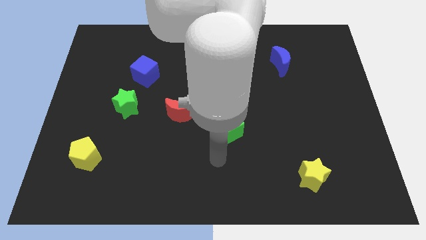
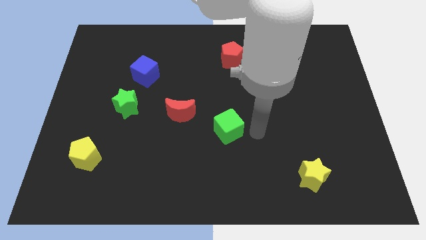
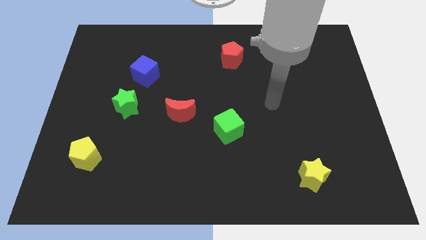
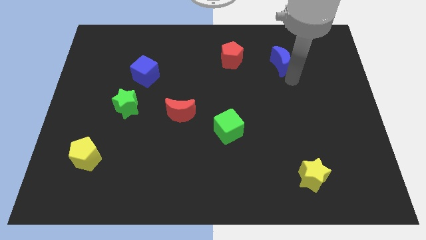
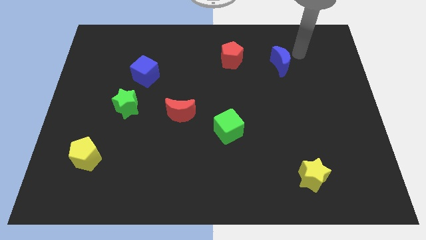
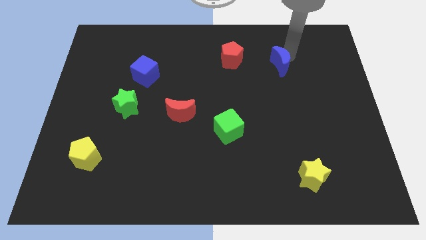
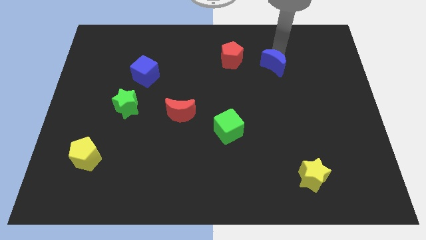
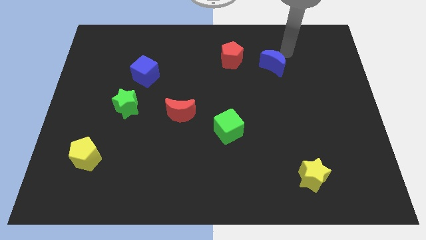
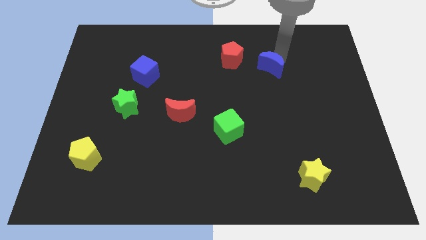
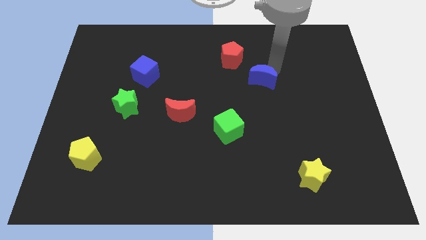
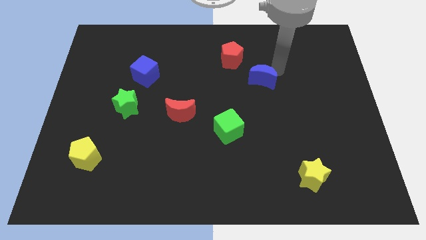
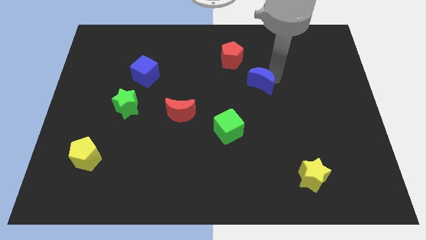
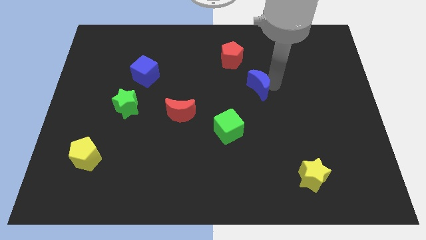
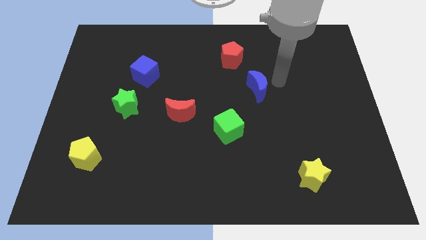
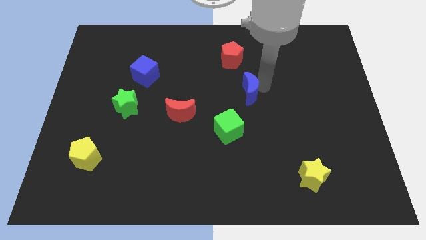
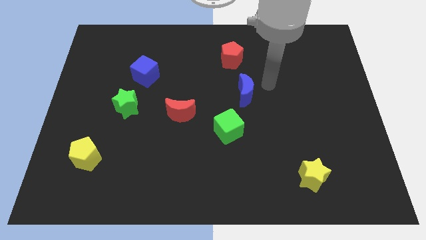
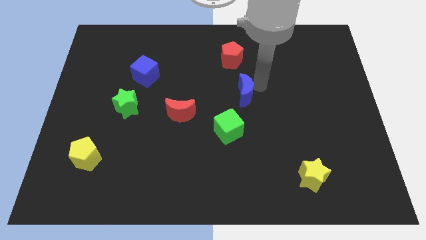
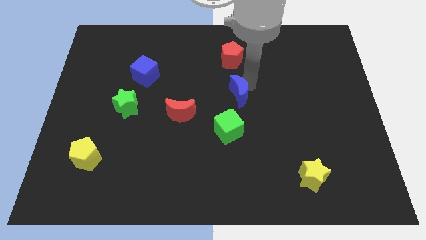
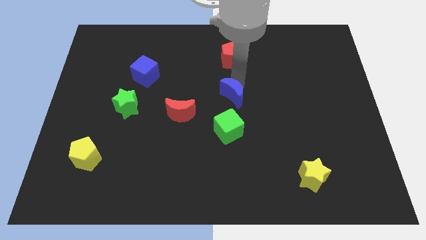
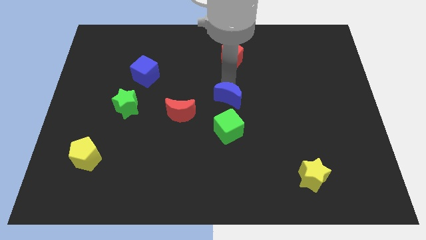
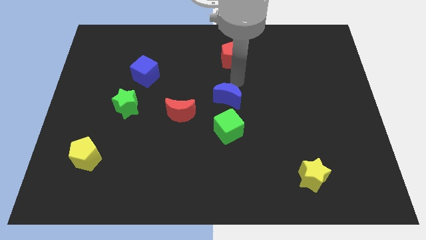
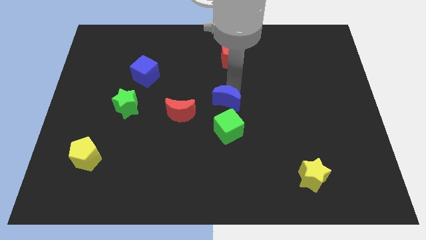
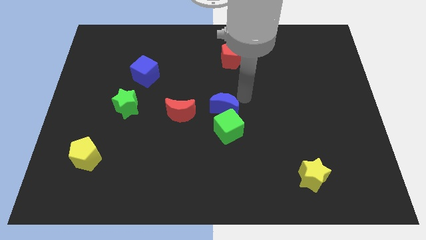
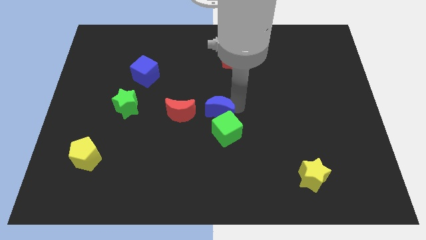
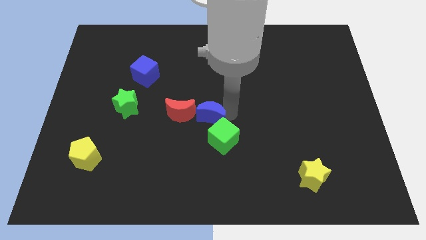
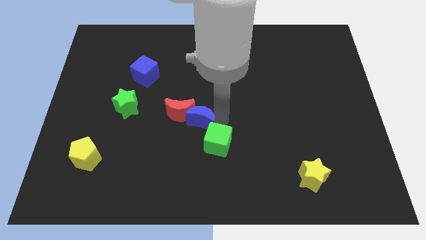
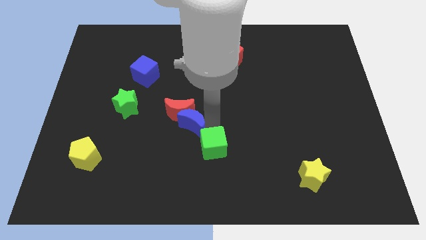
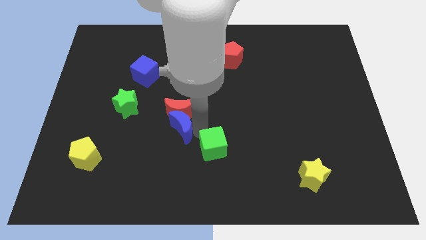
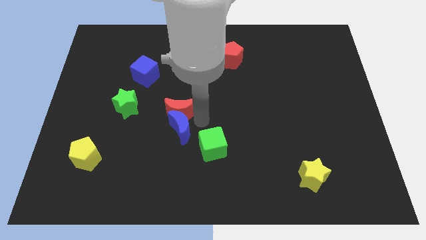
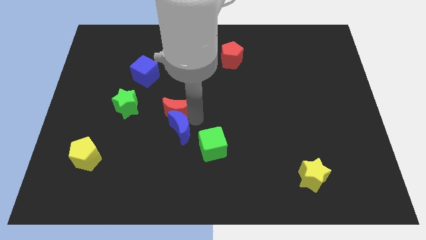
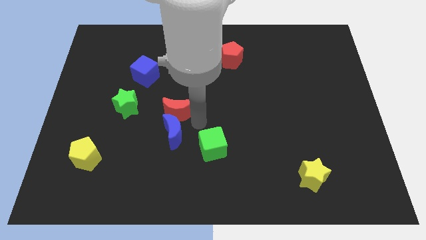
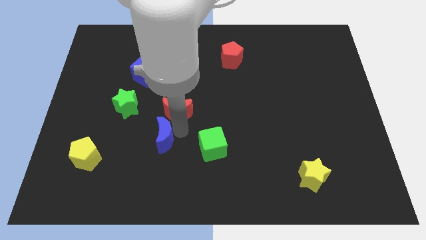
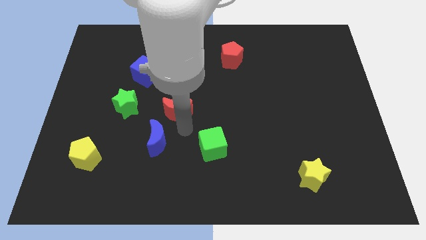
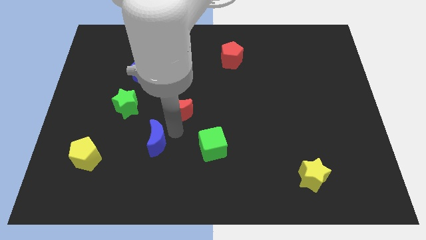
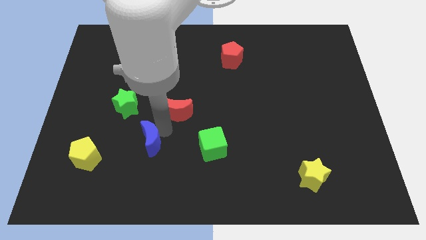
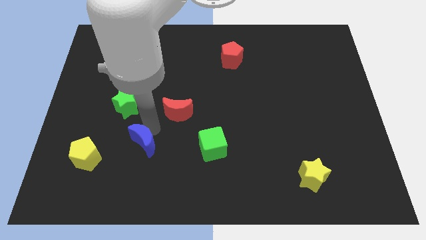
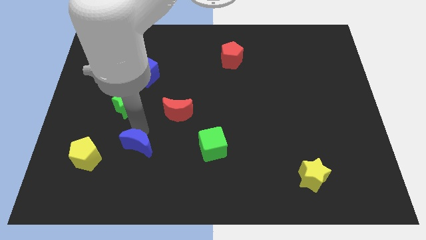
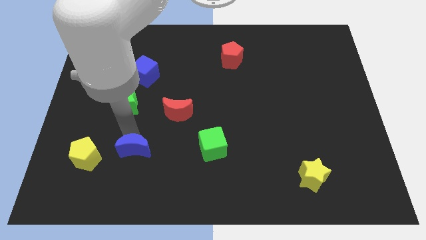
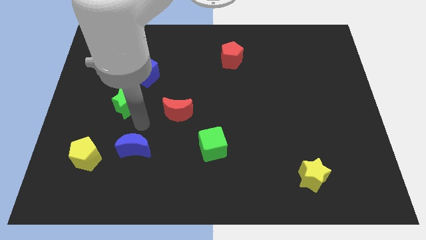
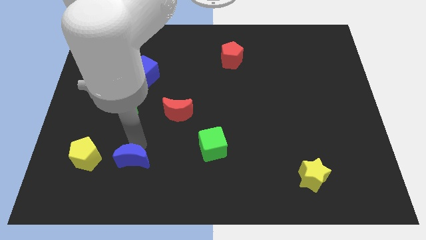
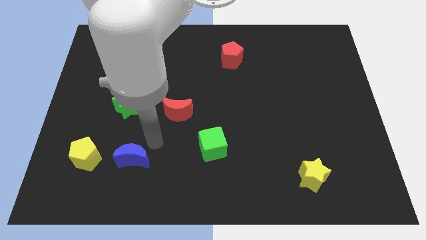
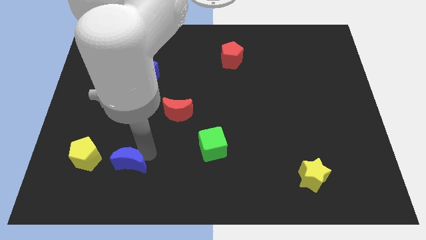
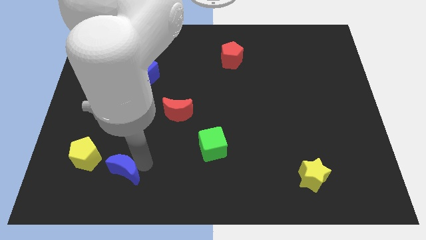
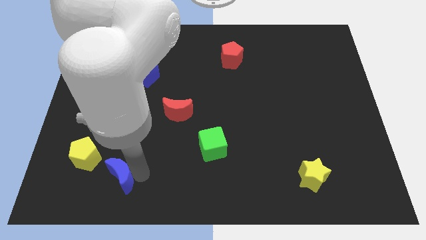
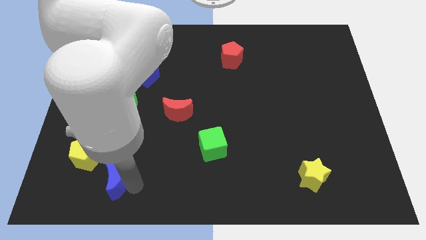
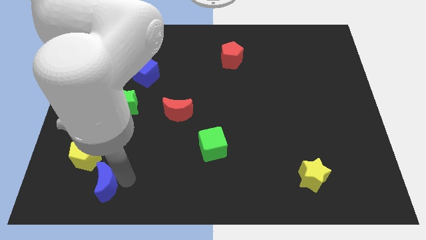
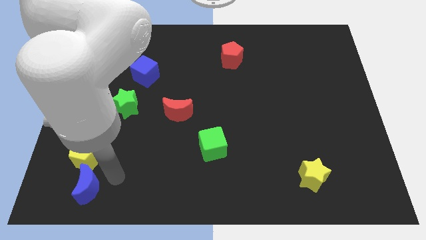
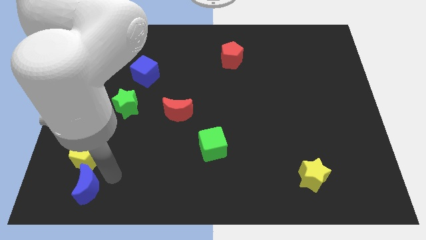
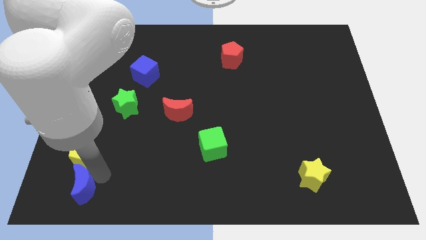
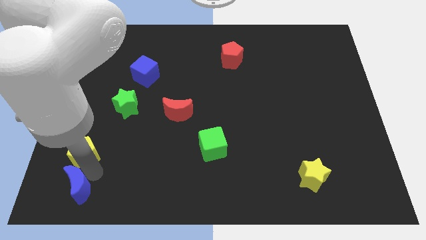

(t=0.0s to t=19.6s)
push the blue moon to the bottom left corner

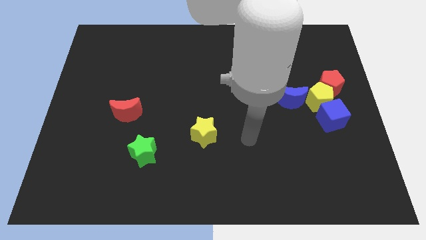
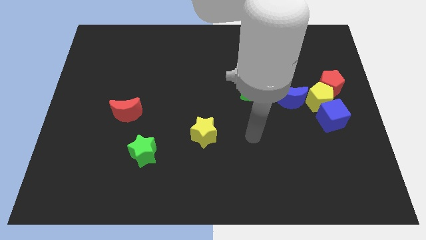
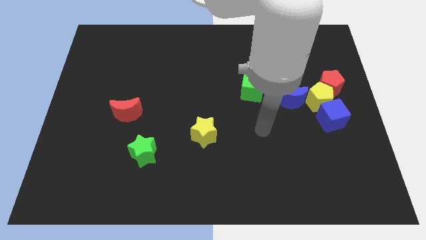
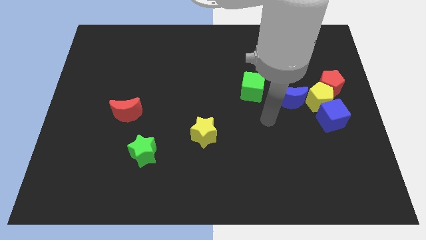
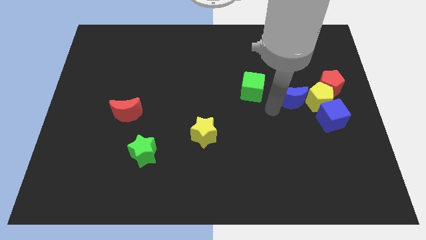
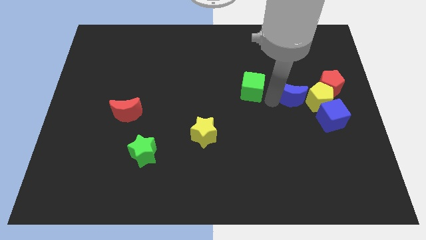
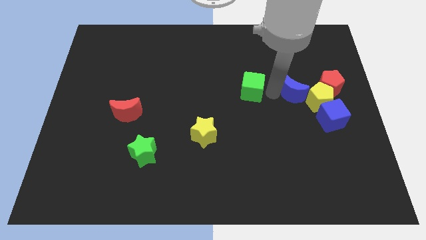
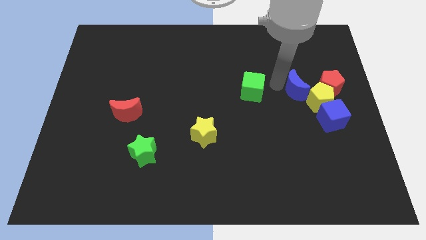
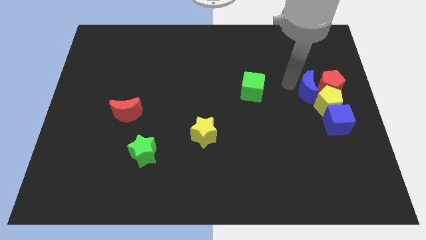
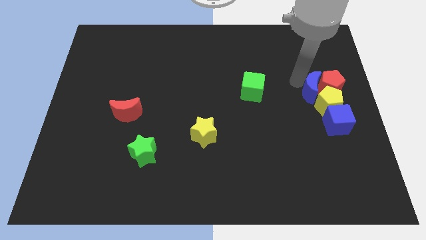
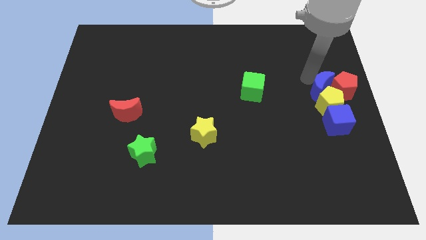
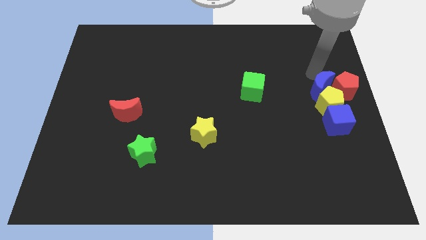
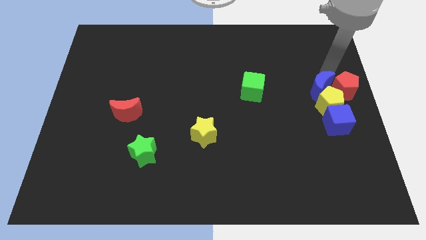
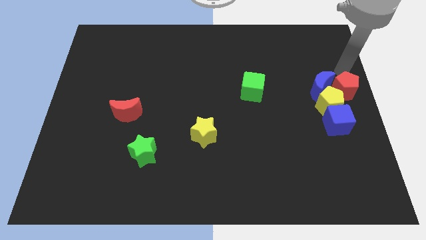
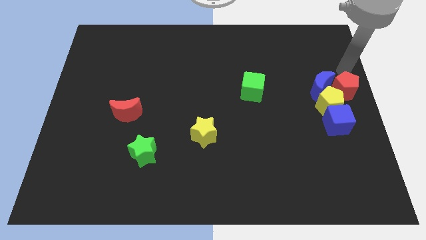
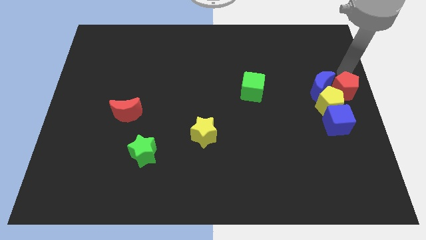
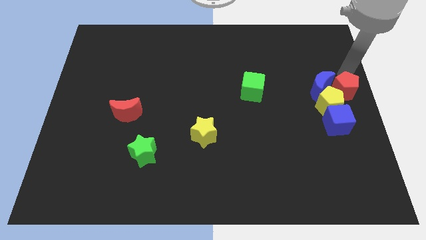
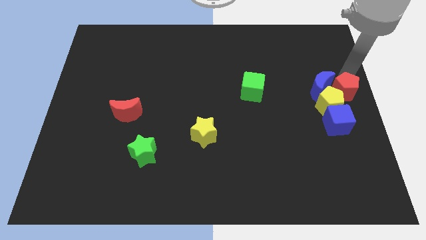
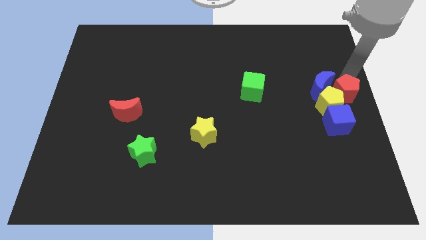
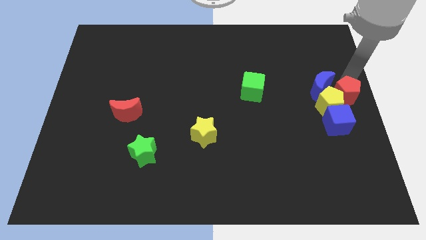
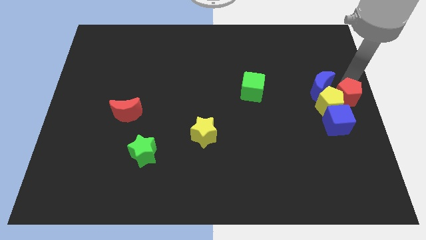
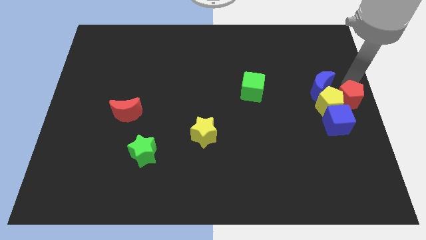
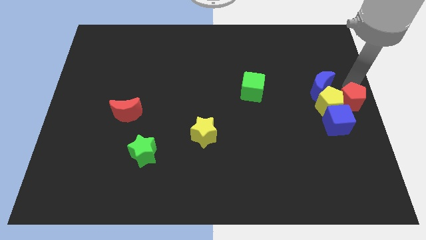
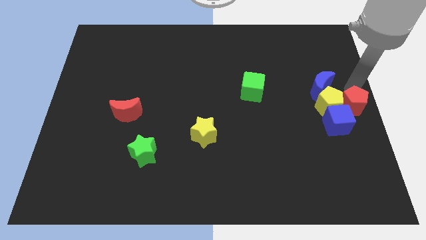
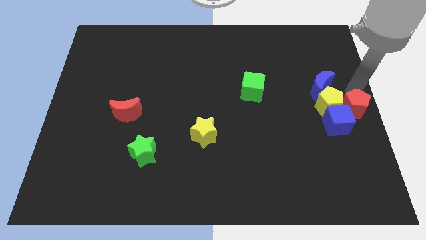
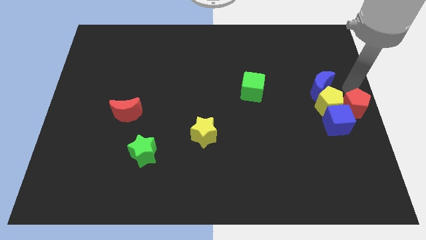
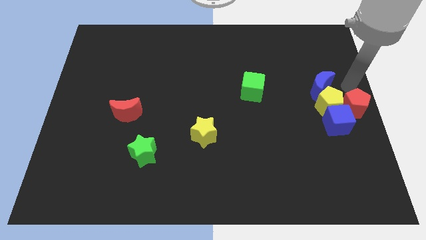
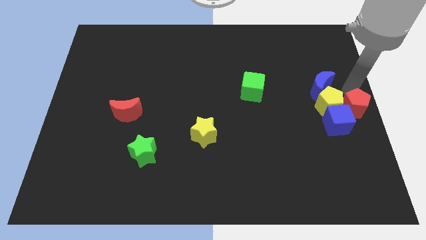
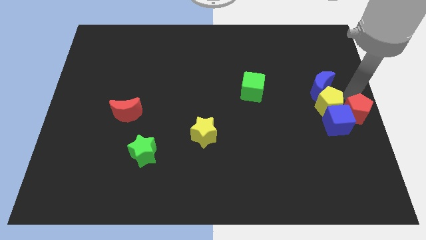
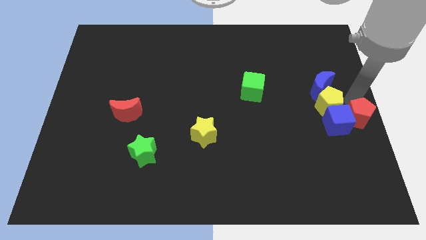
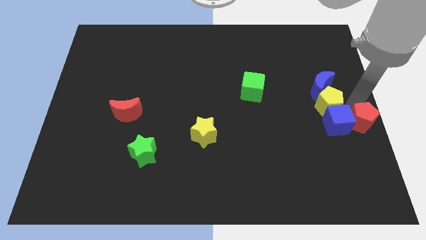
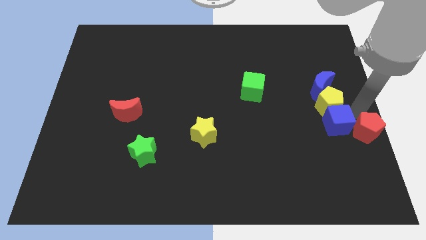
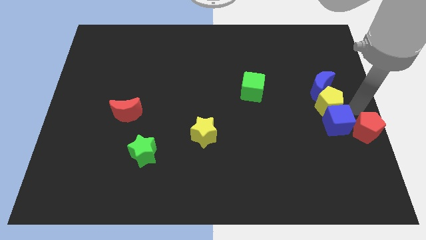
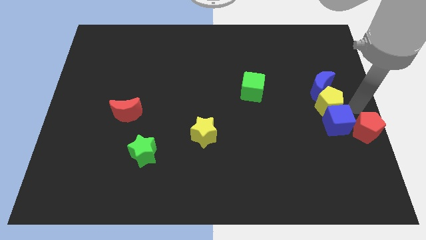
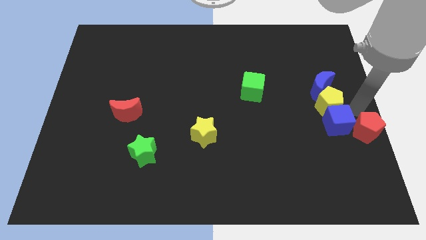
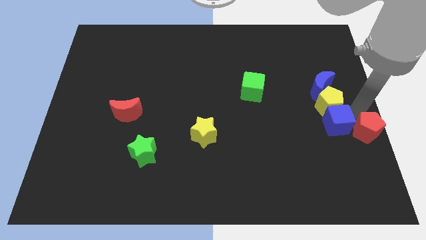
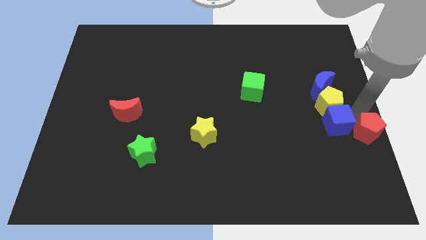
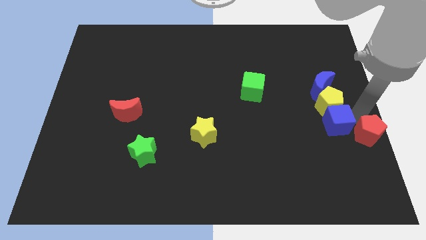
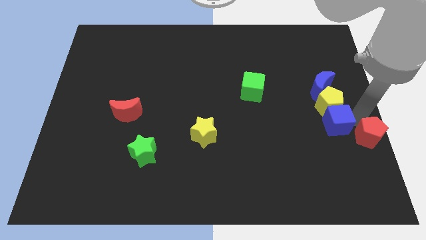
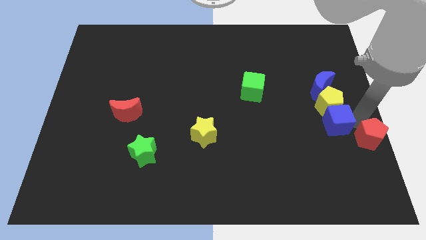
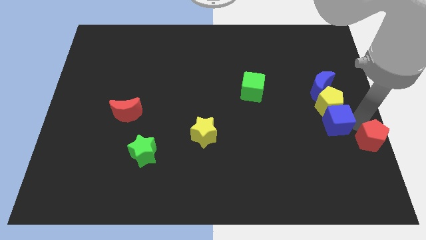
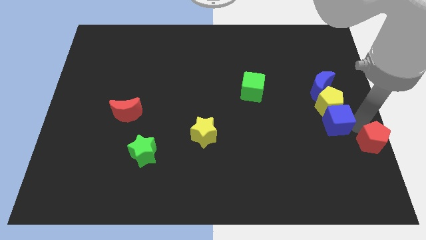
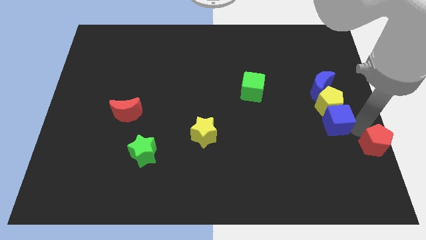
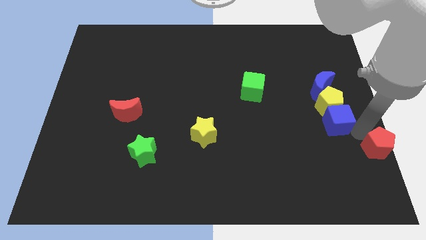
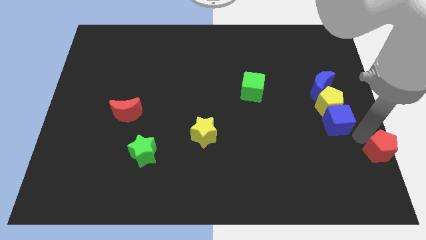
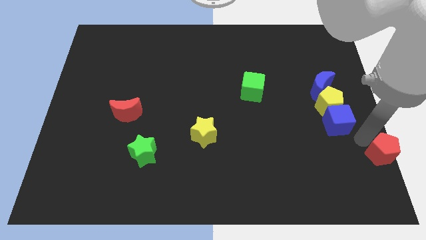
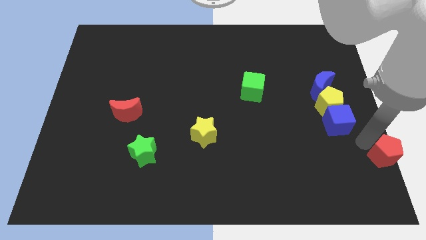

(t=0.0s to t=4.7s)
push the red pentagon to the lower right corner
